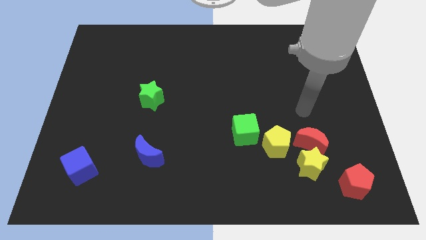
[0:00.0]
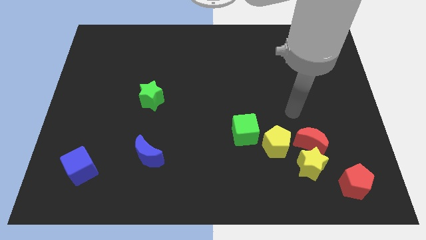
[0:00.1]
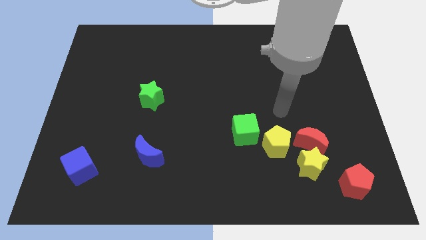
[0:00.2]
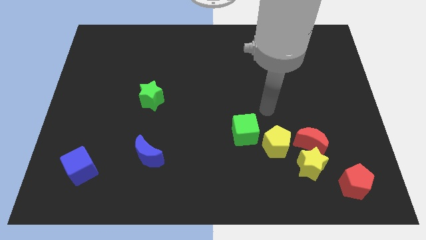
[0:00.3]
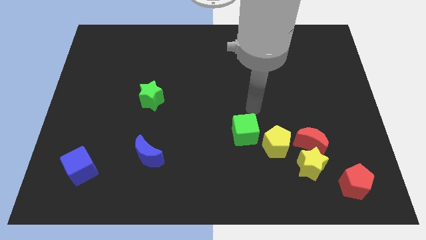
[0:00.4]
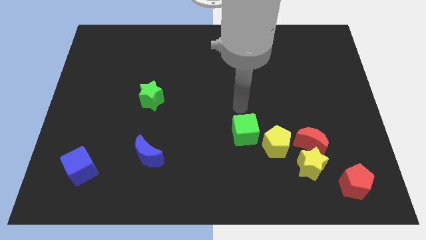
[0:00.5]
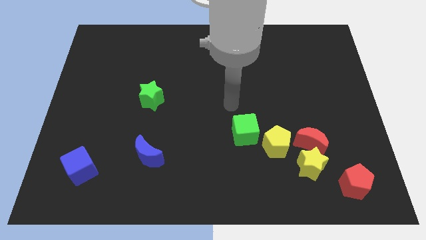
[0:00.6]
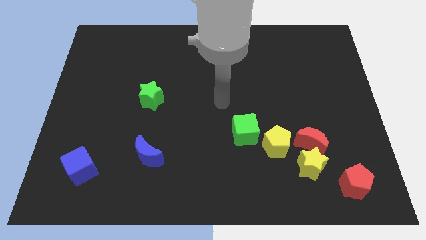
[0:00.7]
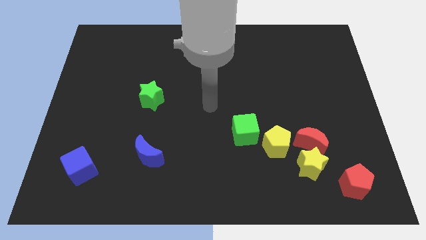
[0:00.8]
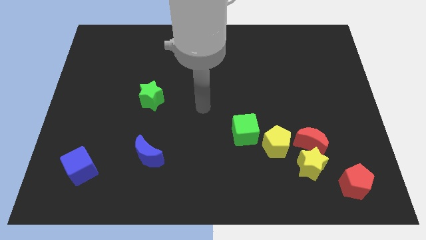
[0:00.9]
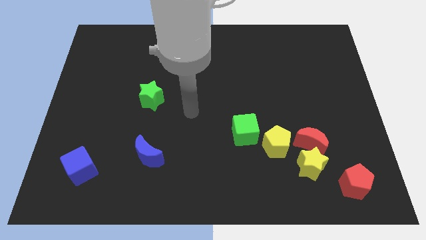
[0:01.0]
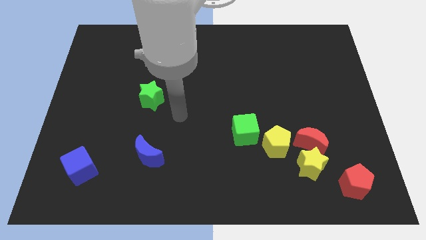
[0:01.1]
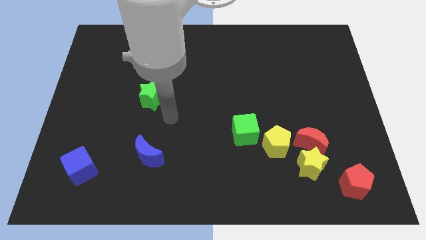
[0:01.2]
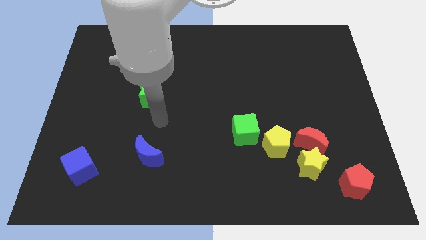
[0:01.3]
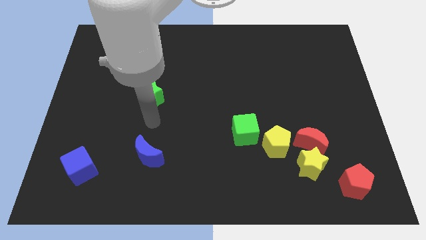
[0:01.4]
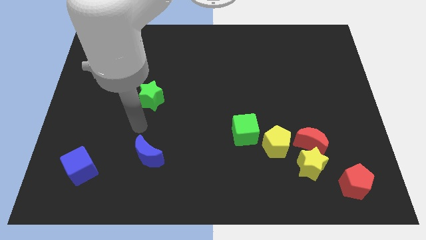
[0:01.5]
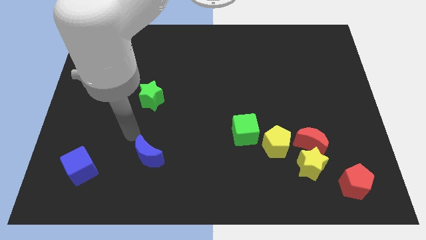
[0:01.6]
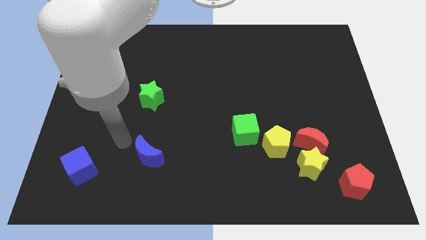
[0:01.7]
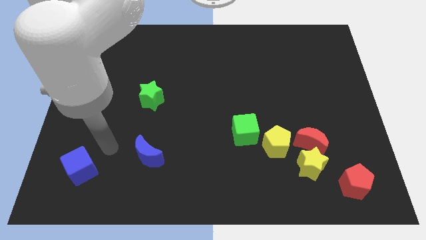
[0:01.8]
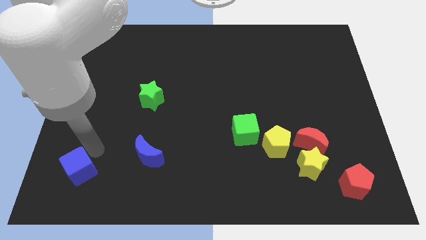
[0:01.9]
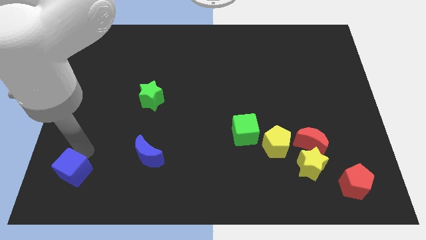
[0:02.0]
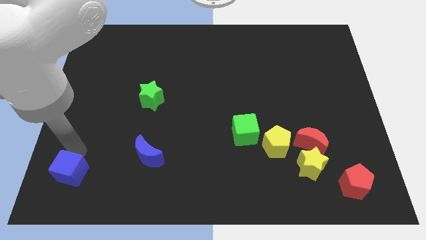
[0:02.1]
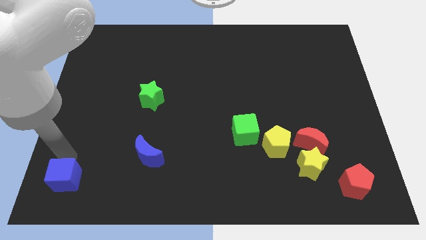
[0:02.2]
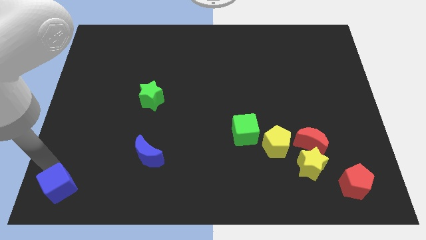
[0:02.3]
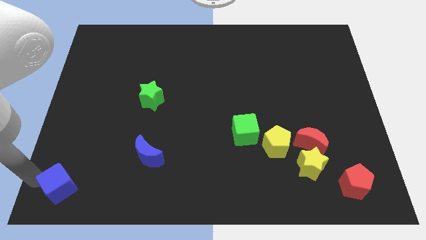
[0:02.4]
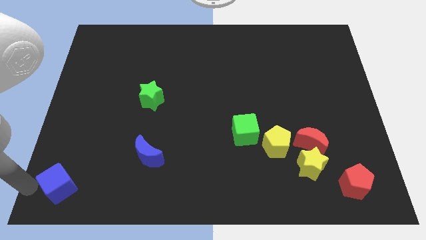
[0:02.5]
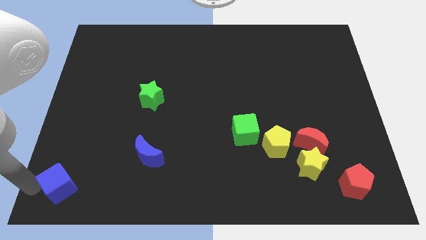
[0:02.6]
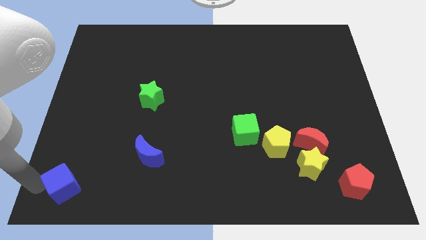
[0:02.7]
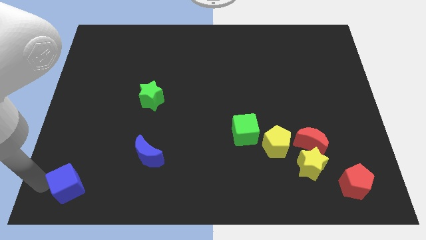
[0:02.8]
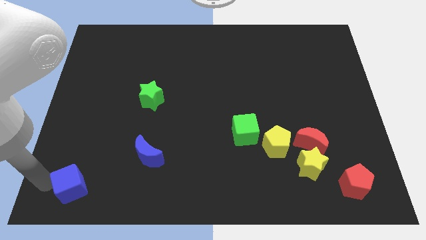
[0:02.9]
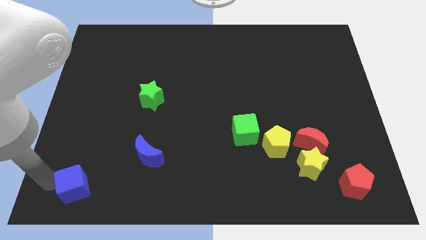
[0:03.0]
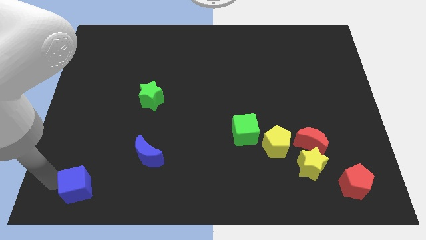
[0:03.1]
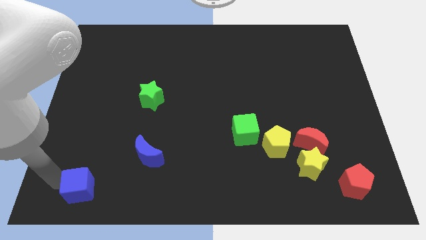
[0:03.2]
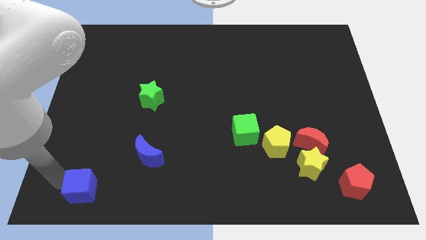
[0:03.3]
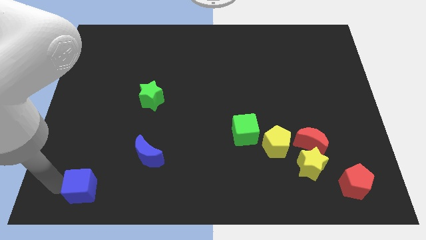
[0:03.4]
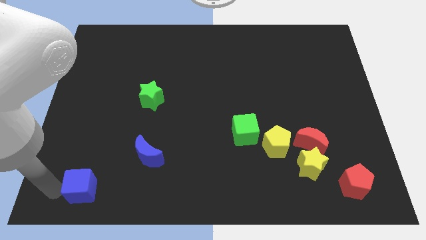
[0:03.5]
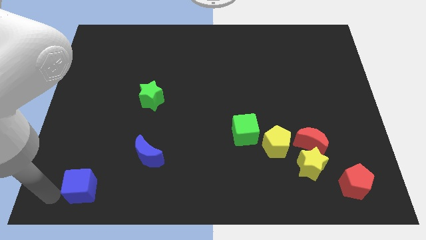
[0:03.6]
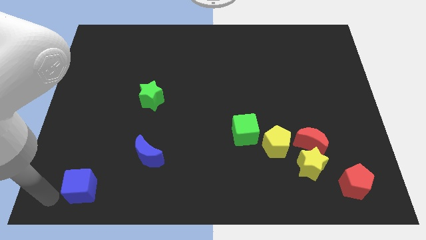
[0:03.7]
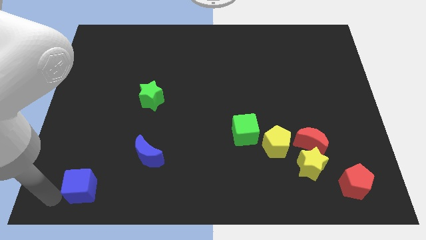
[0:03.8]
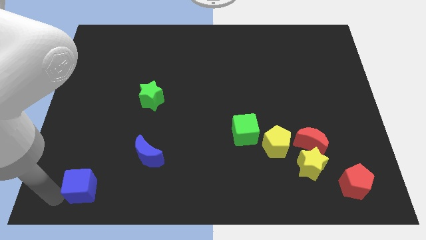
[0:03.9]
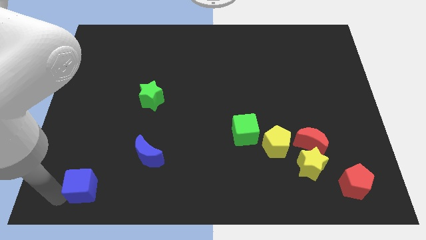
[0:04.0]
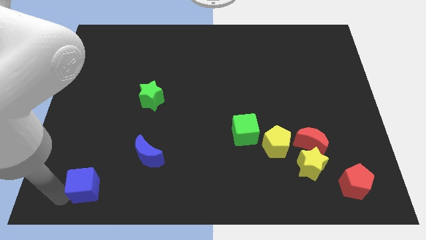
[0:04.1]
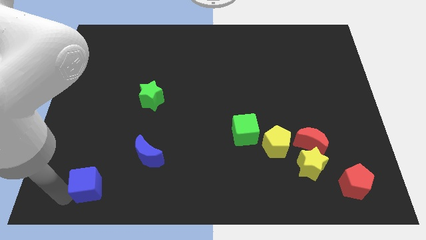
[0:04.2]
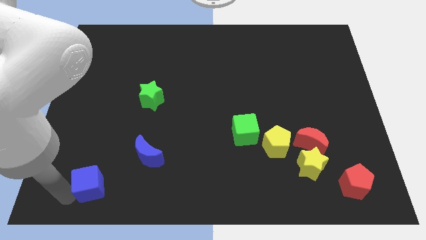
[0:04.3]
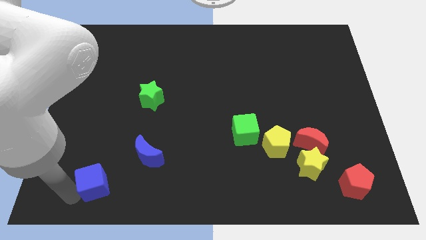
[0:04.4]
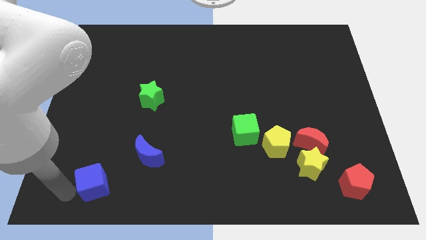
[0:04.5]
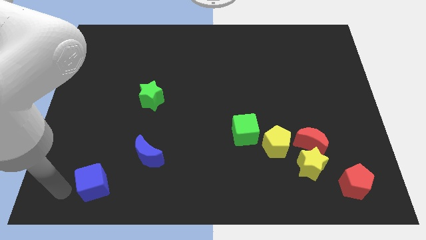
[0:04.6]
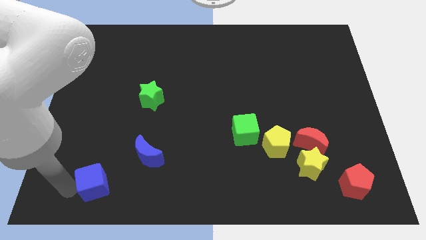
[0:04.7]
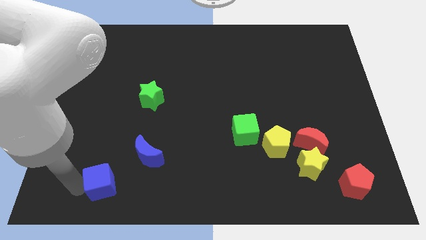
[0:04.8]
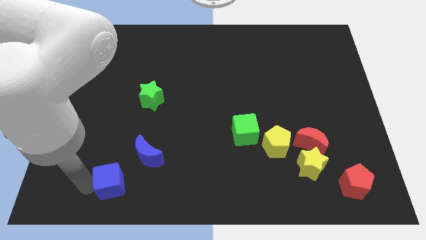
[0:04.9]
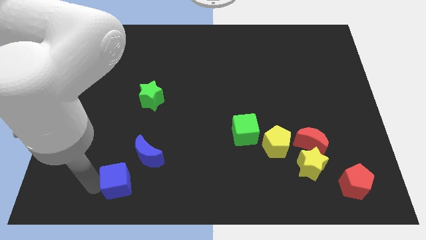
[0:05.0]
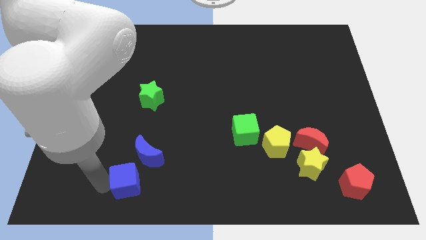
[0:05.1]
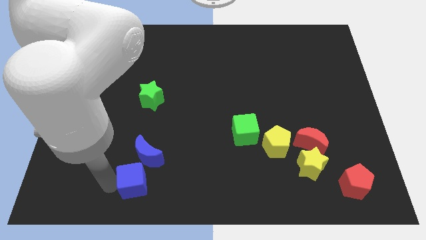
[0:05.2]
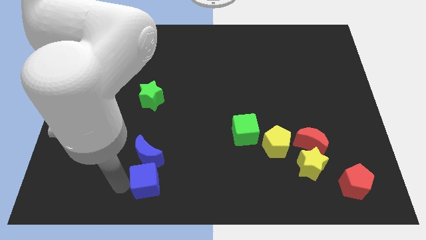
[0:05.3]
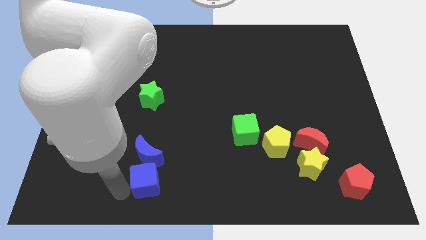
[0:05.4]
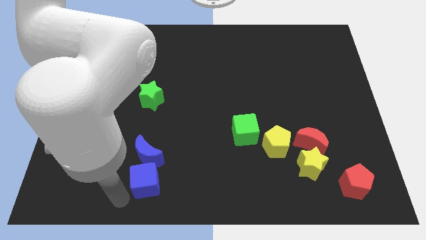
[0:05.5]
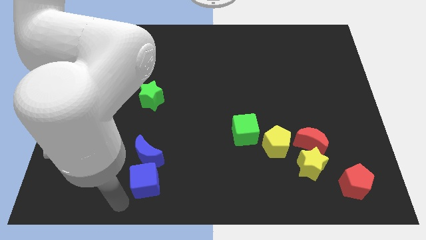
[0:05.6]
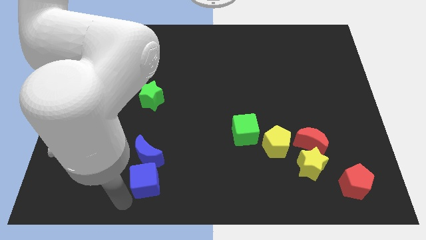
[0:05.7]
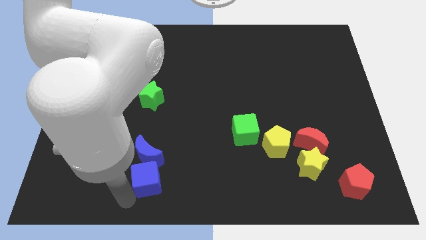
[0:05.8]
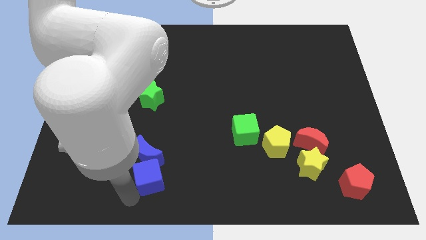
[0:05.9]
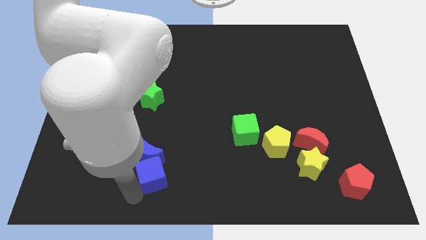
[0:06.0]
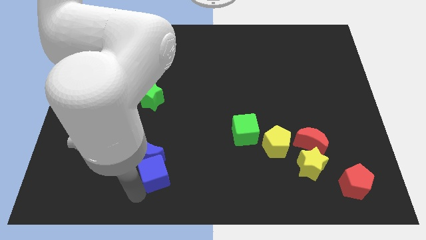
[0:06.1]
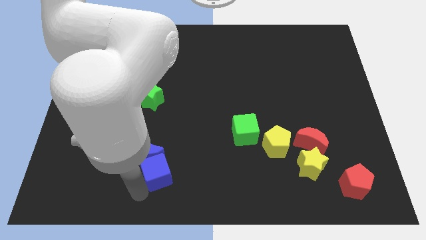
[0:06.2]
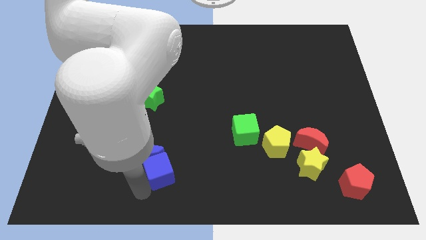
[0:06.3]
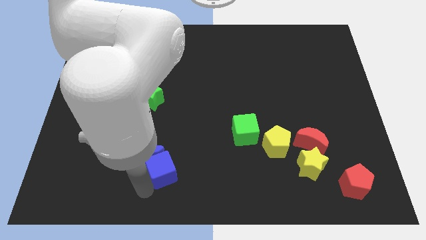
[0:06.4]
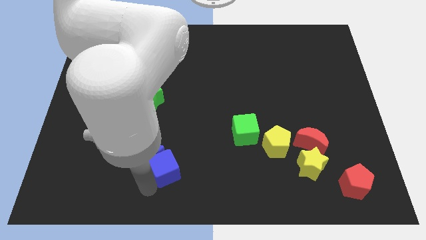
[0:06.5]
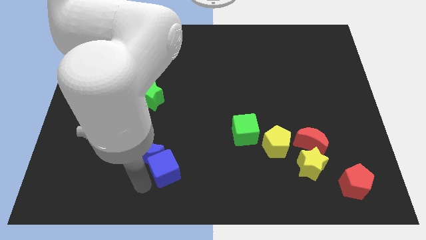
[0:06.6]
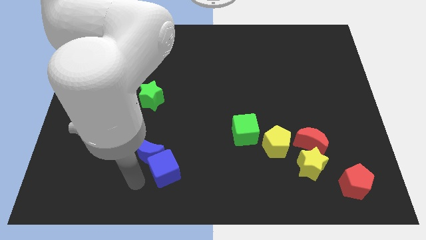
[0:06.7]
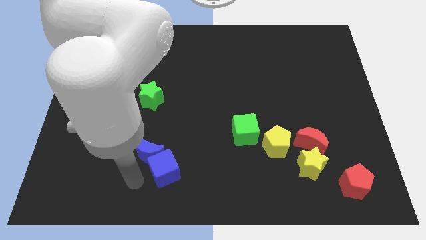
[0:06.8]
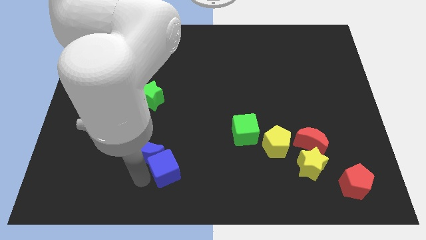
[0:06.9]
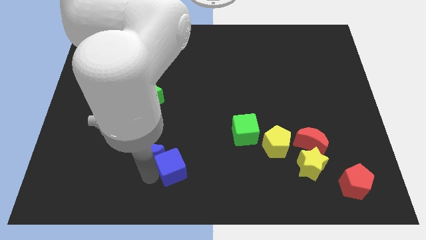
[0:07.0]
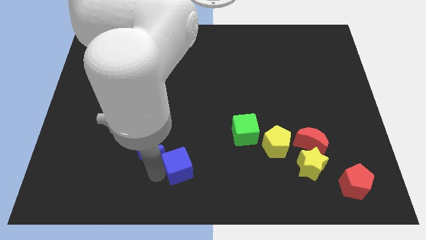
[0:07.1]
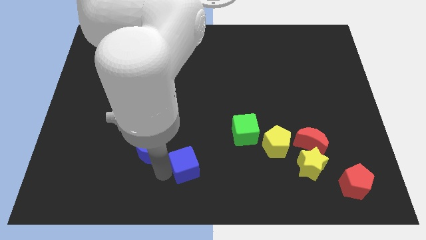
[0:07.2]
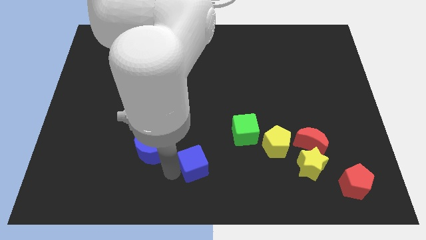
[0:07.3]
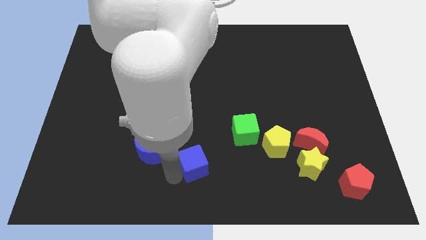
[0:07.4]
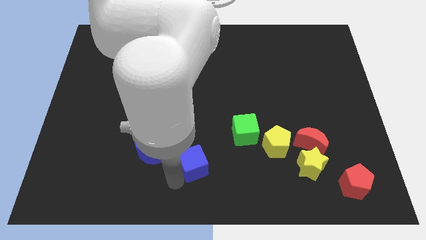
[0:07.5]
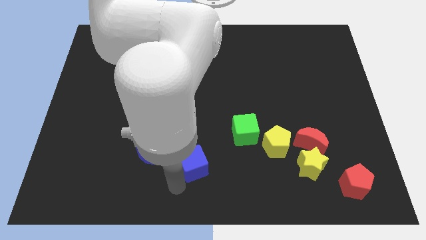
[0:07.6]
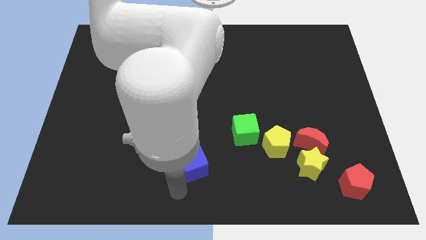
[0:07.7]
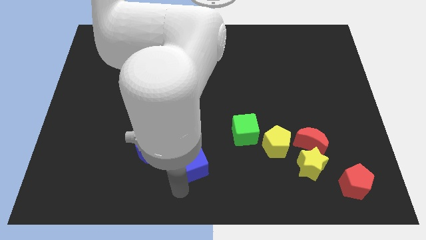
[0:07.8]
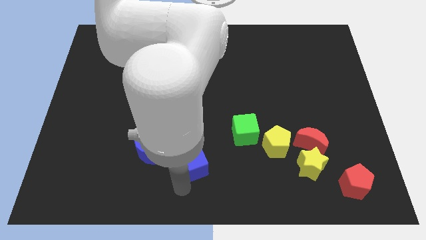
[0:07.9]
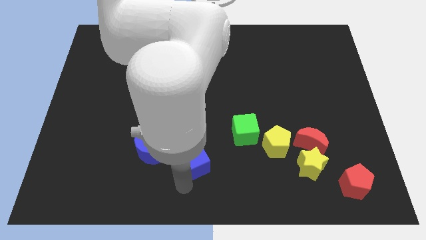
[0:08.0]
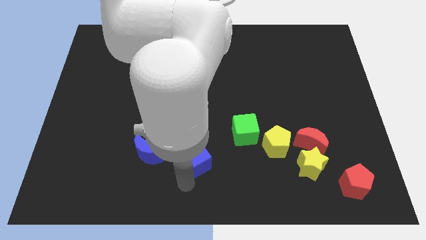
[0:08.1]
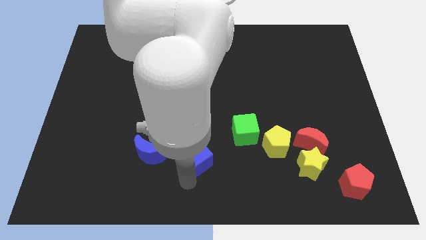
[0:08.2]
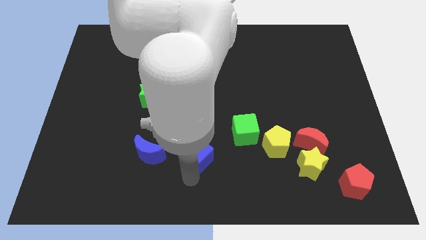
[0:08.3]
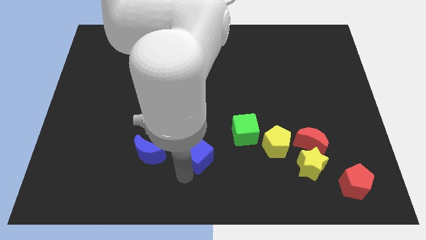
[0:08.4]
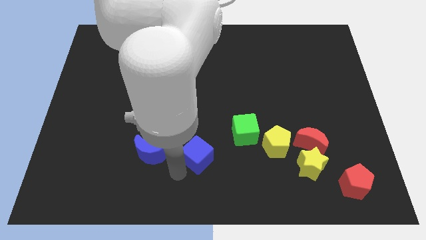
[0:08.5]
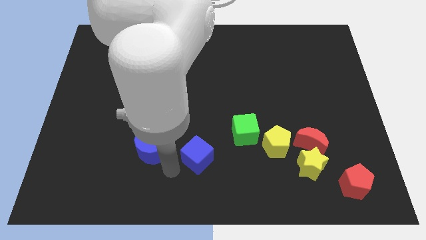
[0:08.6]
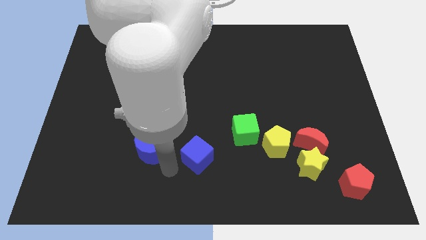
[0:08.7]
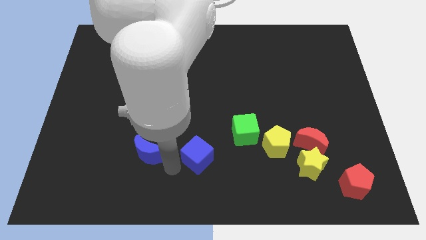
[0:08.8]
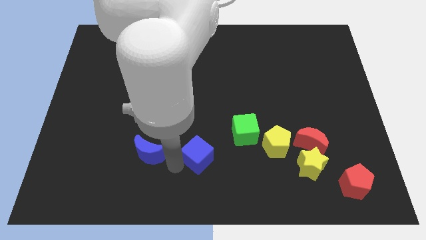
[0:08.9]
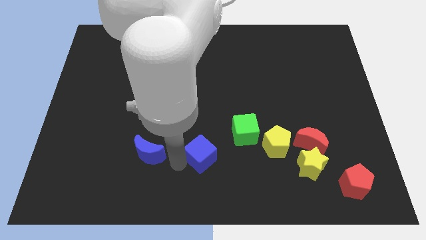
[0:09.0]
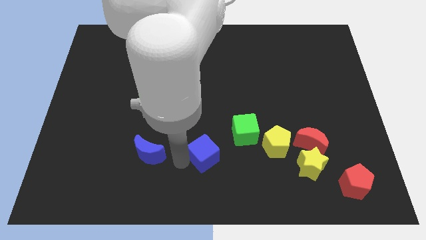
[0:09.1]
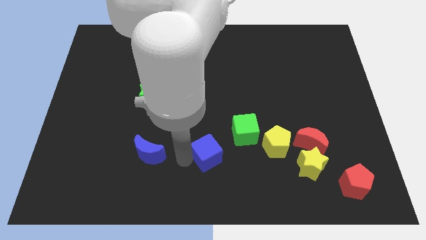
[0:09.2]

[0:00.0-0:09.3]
push the blue cube to the left of the yellow pentagon
